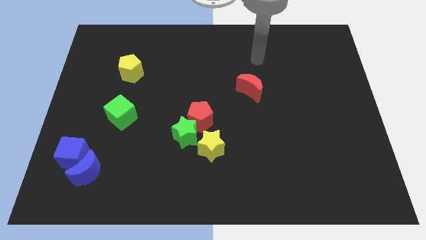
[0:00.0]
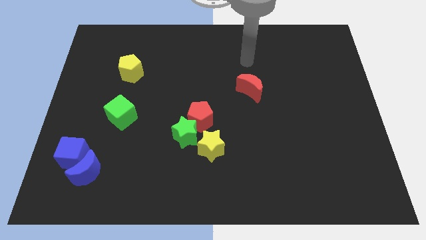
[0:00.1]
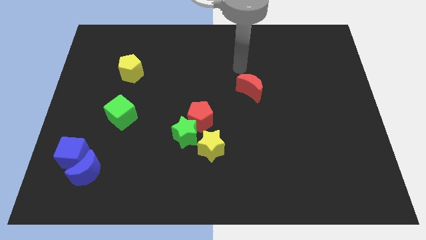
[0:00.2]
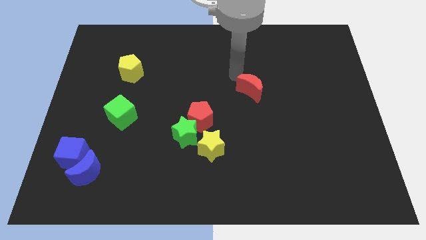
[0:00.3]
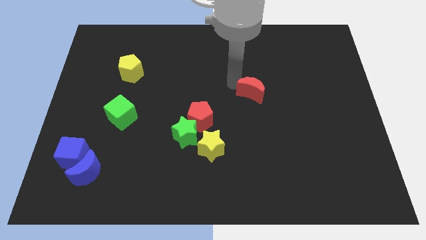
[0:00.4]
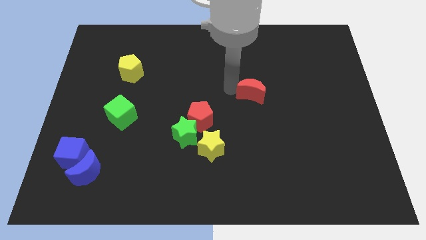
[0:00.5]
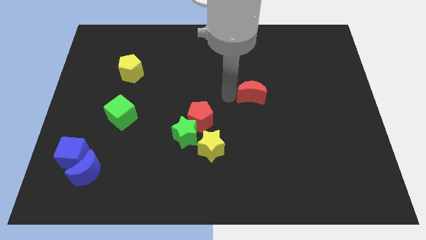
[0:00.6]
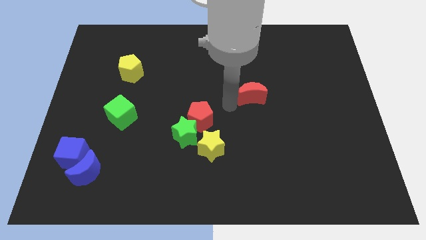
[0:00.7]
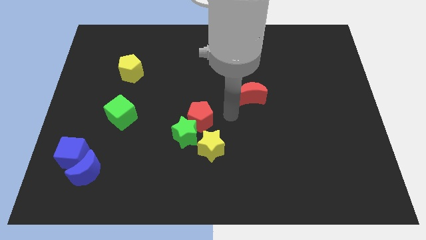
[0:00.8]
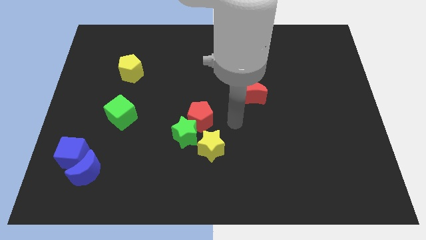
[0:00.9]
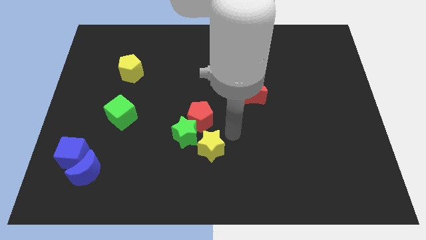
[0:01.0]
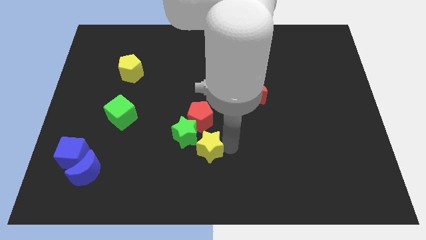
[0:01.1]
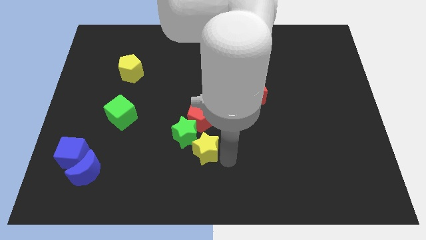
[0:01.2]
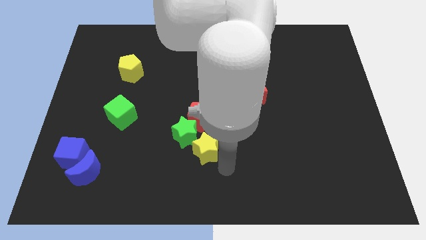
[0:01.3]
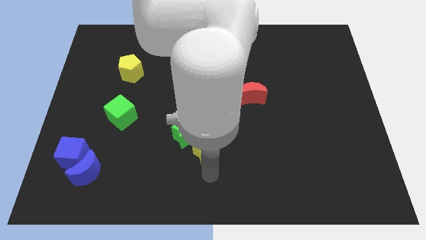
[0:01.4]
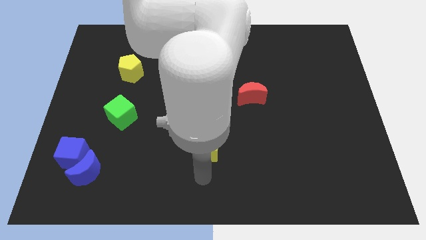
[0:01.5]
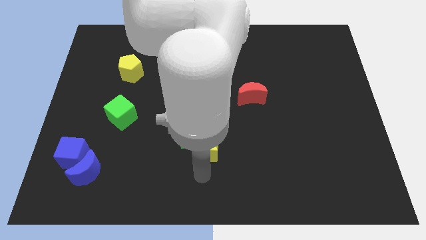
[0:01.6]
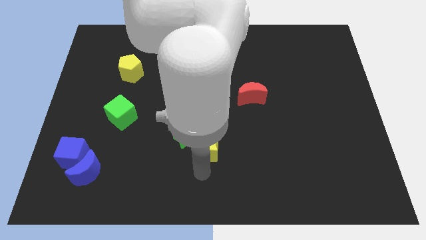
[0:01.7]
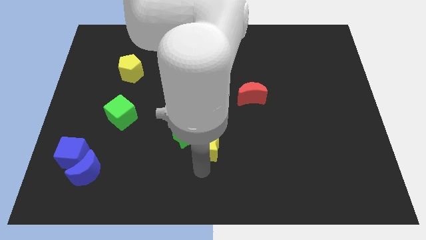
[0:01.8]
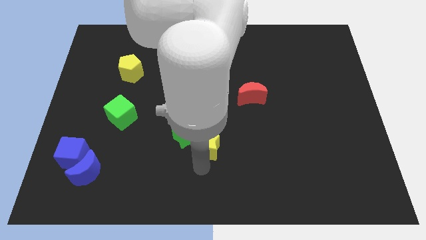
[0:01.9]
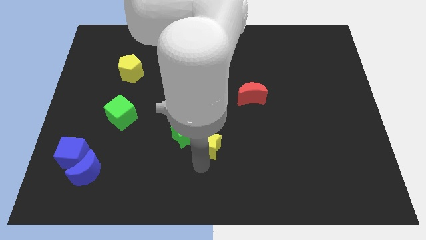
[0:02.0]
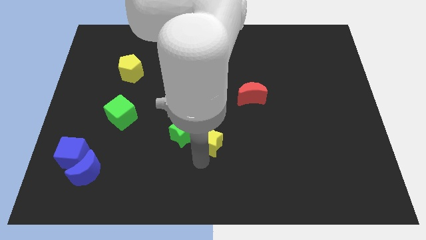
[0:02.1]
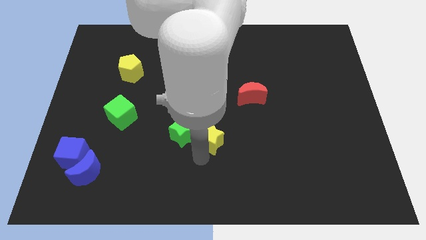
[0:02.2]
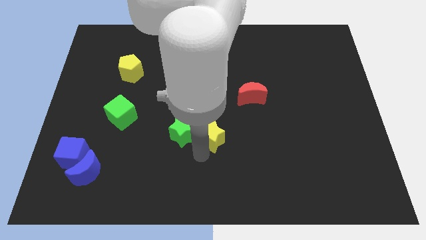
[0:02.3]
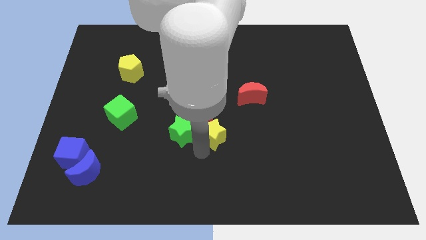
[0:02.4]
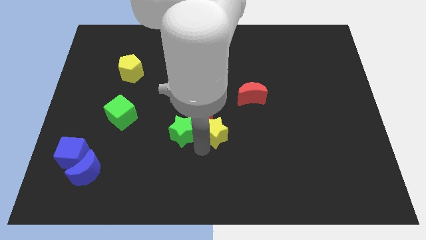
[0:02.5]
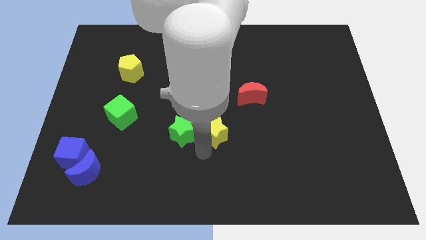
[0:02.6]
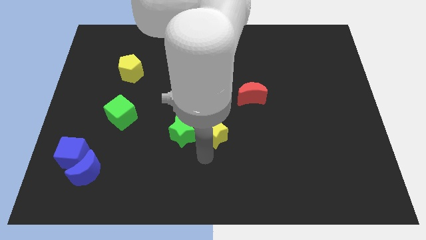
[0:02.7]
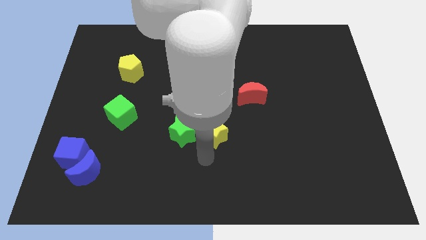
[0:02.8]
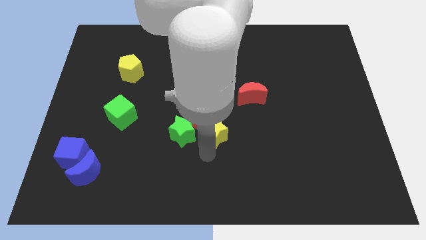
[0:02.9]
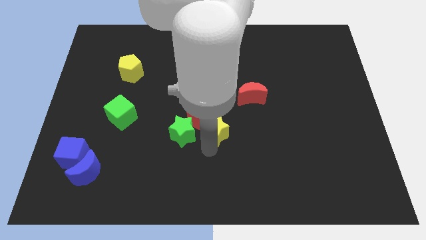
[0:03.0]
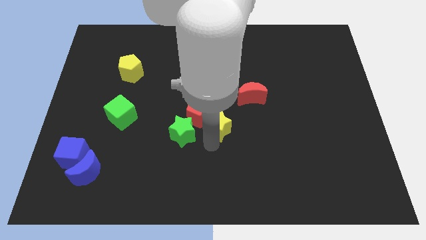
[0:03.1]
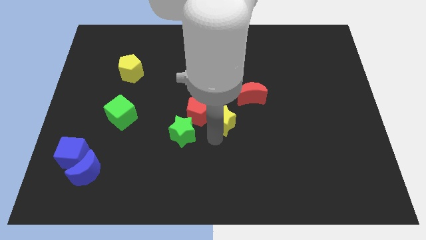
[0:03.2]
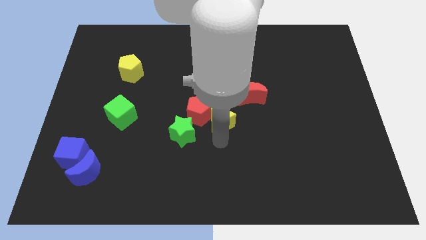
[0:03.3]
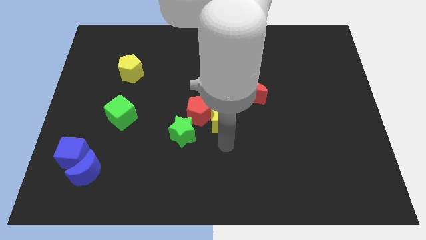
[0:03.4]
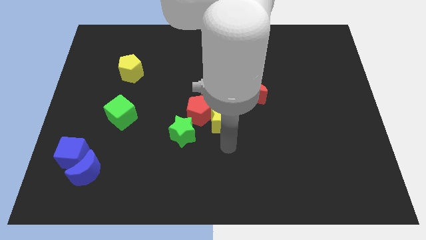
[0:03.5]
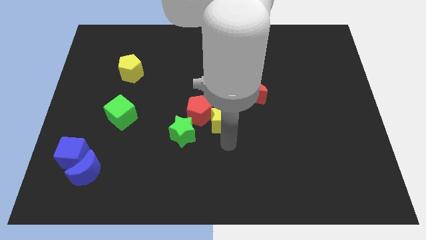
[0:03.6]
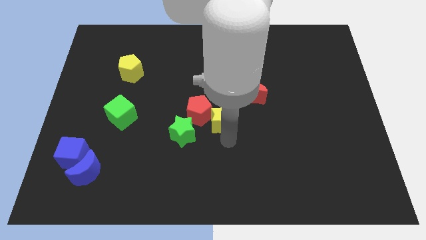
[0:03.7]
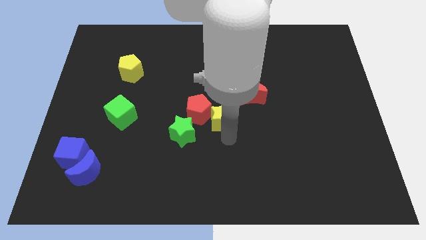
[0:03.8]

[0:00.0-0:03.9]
slightly push the yellow star up

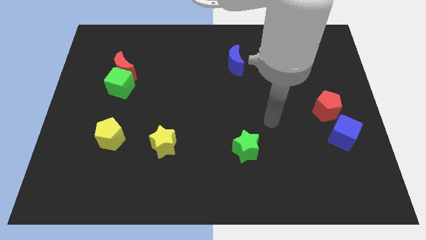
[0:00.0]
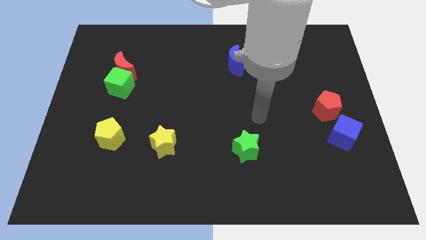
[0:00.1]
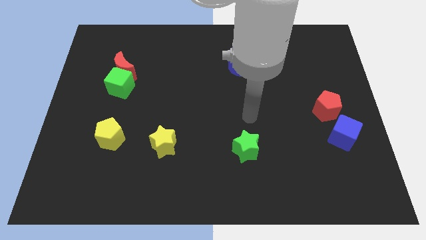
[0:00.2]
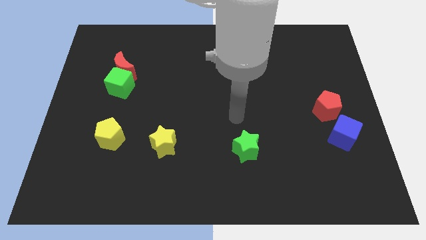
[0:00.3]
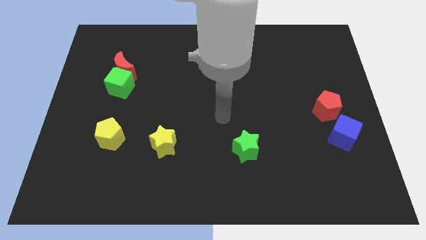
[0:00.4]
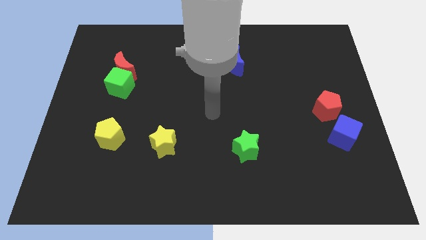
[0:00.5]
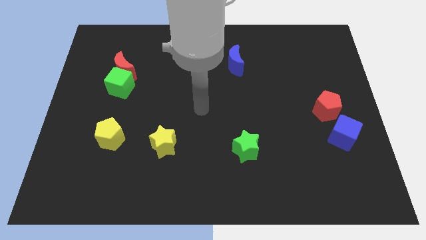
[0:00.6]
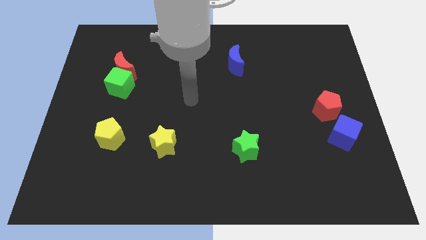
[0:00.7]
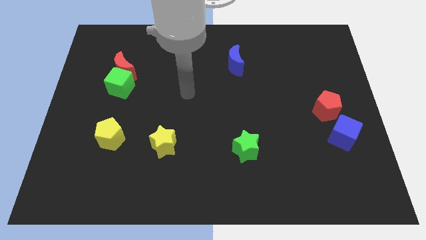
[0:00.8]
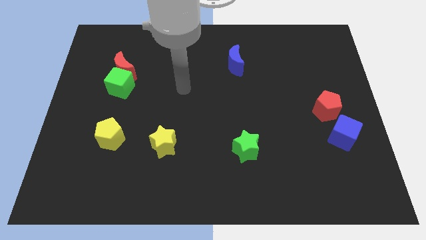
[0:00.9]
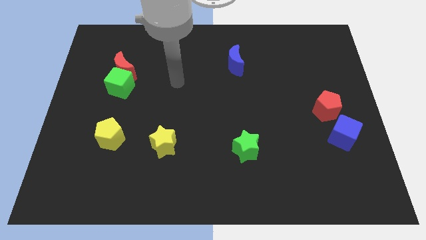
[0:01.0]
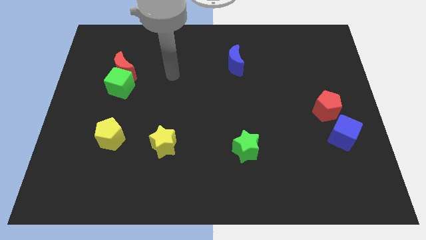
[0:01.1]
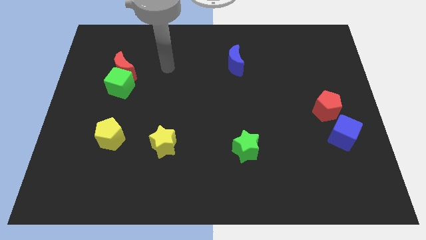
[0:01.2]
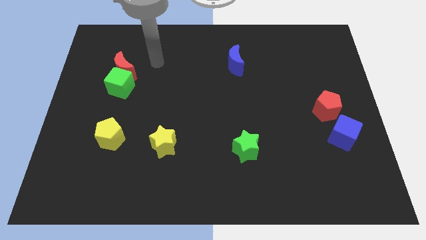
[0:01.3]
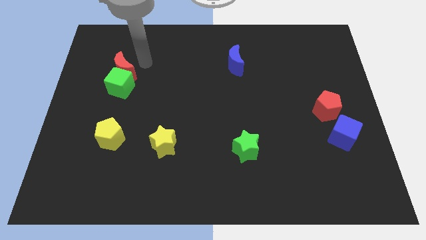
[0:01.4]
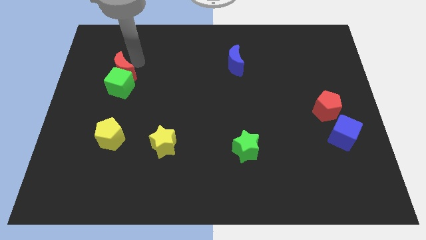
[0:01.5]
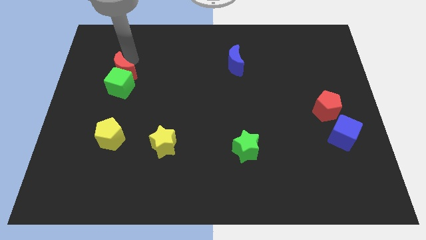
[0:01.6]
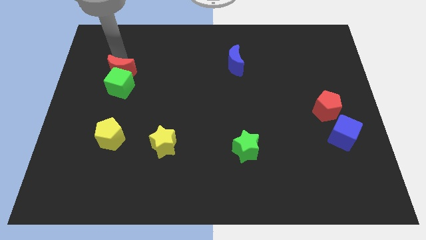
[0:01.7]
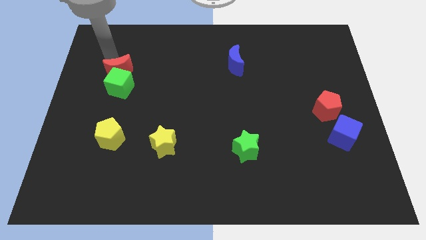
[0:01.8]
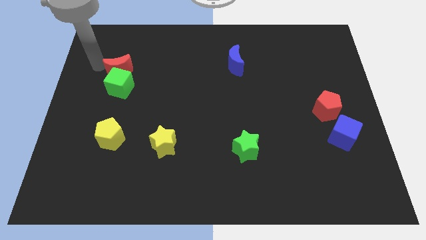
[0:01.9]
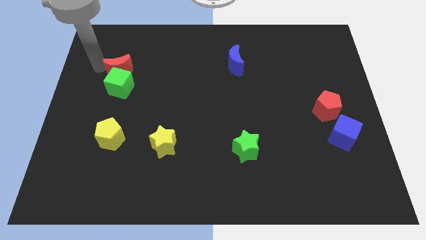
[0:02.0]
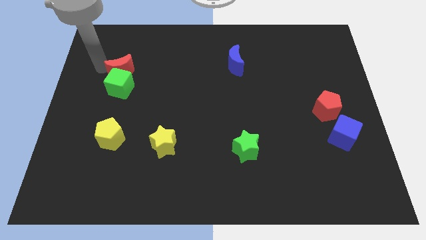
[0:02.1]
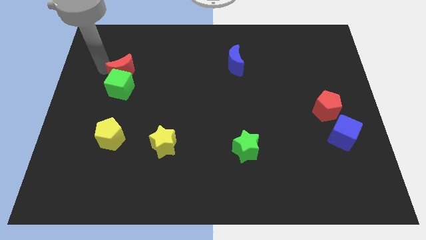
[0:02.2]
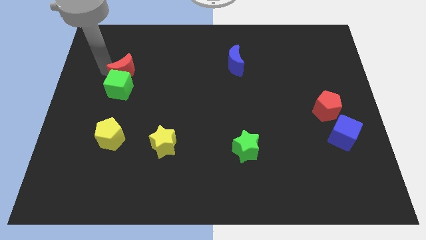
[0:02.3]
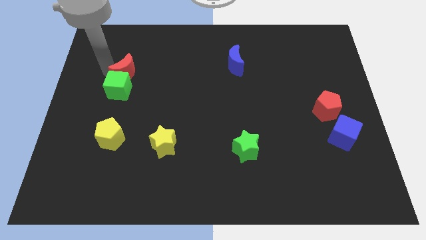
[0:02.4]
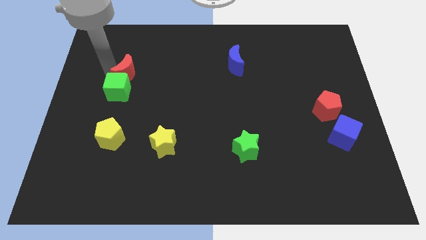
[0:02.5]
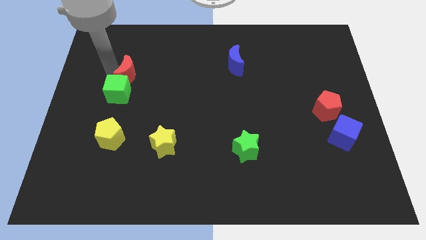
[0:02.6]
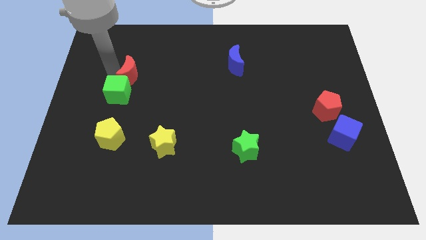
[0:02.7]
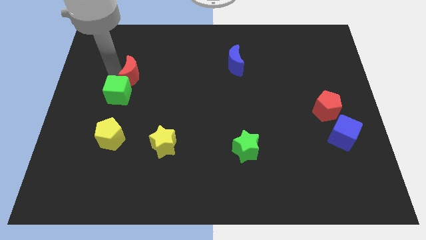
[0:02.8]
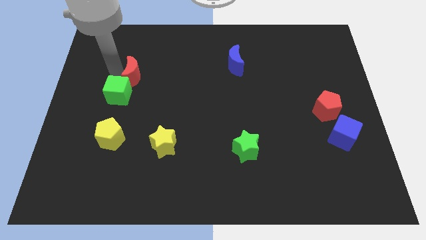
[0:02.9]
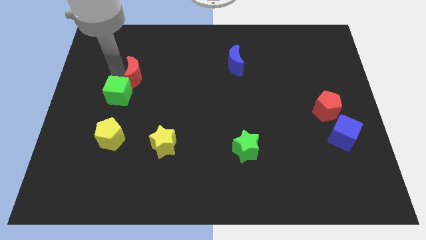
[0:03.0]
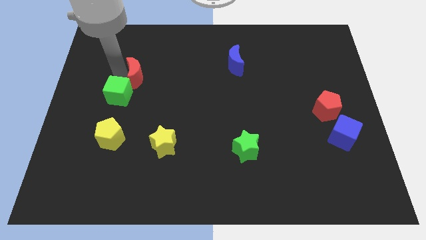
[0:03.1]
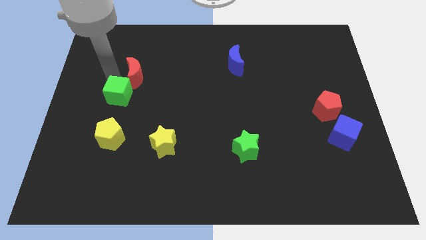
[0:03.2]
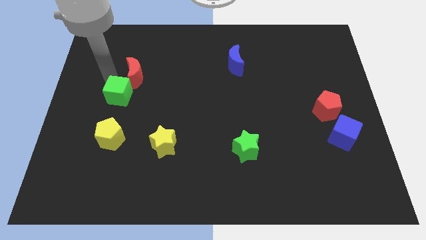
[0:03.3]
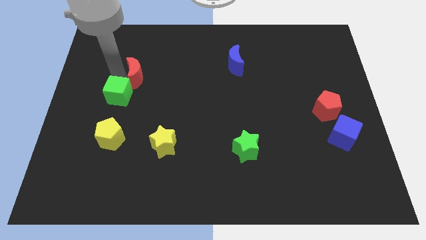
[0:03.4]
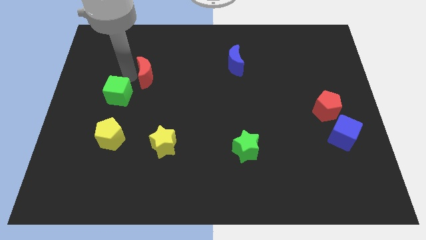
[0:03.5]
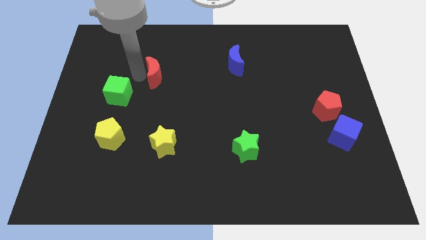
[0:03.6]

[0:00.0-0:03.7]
slide the red moon a little to the right

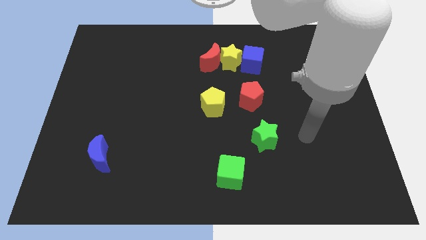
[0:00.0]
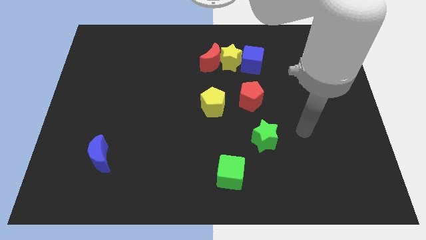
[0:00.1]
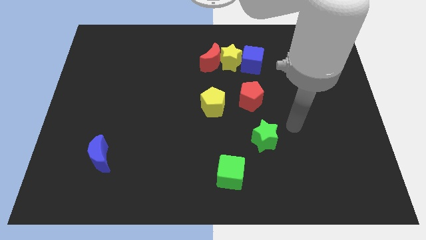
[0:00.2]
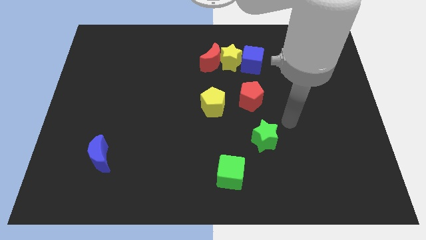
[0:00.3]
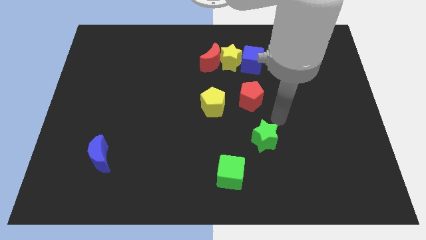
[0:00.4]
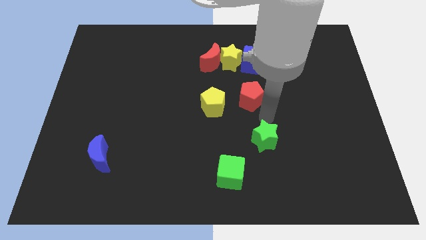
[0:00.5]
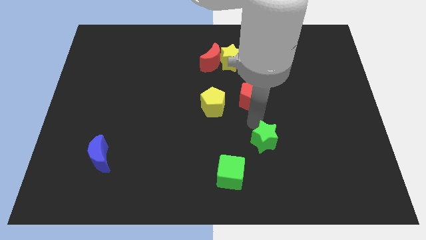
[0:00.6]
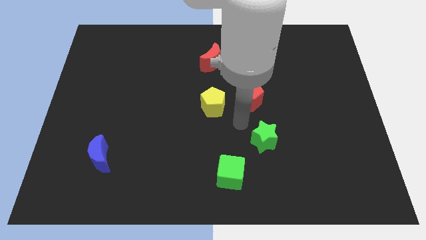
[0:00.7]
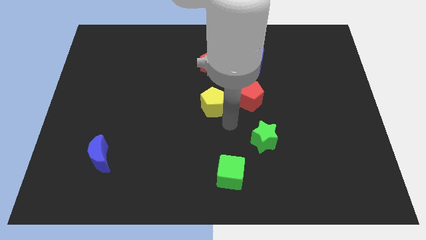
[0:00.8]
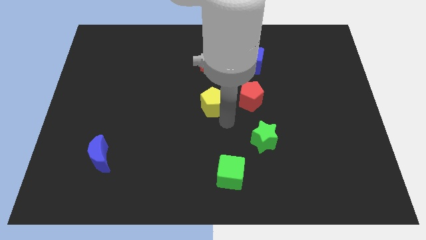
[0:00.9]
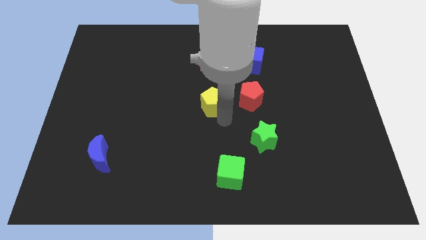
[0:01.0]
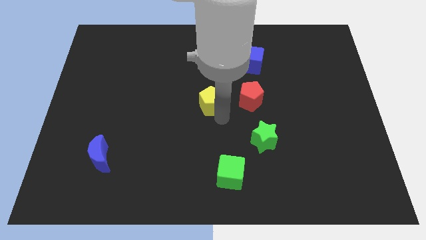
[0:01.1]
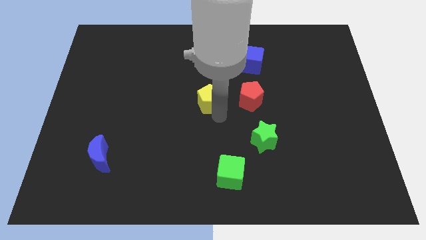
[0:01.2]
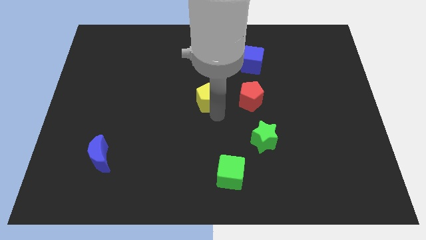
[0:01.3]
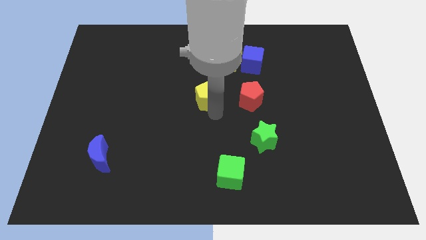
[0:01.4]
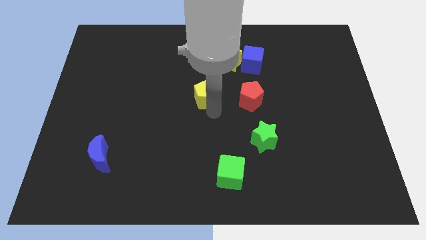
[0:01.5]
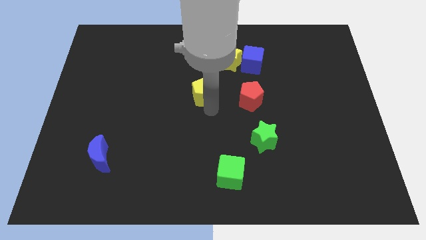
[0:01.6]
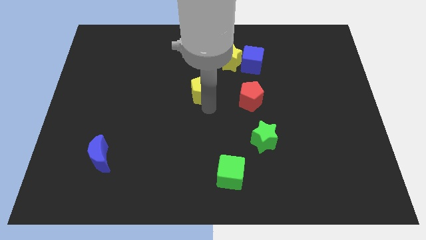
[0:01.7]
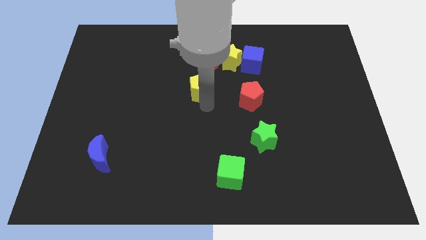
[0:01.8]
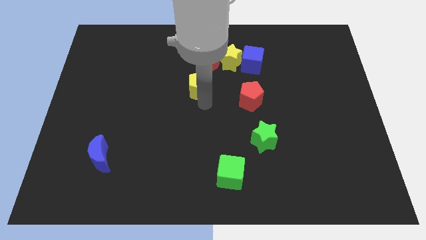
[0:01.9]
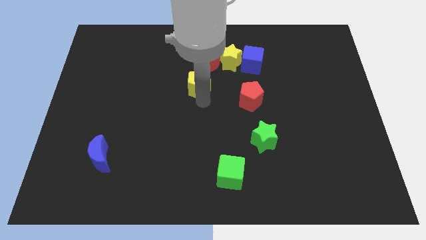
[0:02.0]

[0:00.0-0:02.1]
push the yellow pentagon a little diagonally up and to the left
